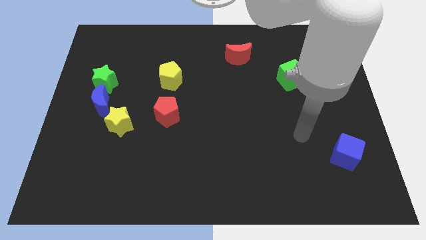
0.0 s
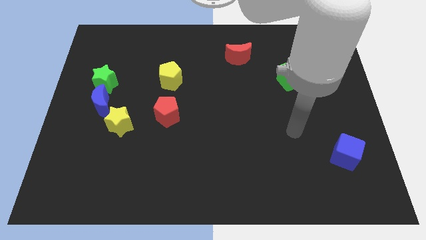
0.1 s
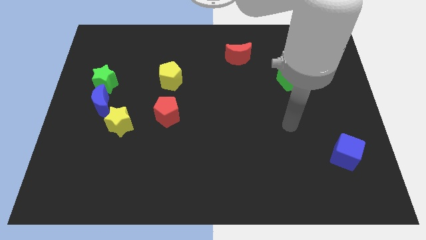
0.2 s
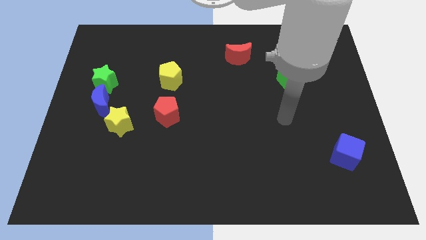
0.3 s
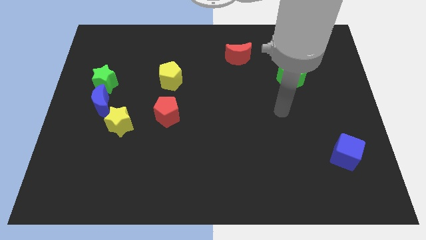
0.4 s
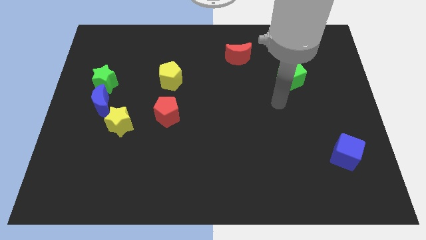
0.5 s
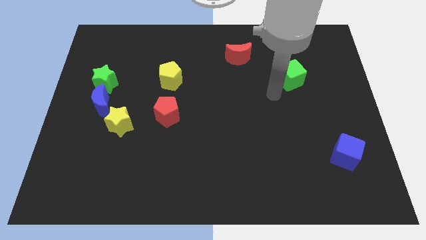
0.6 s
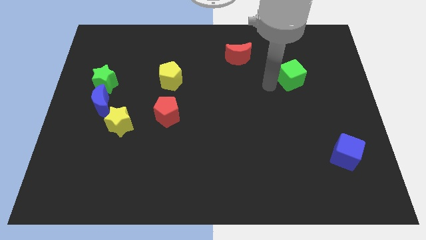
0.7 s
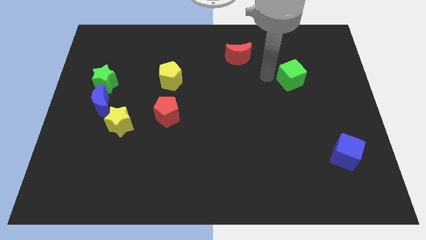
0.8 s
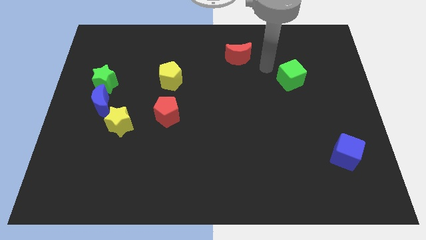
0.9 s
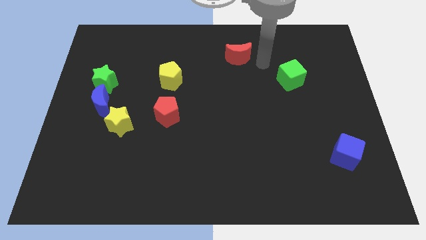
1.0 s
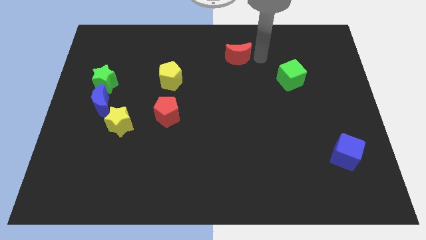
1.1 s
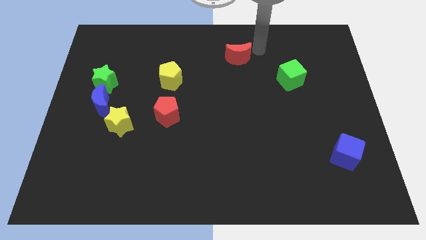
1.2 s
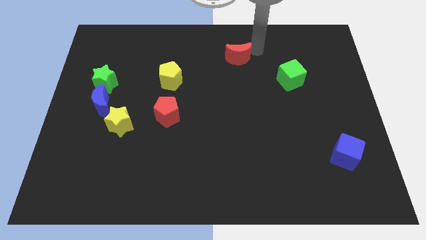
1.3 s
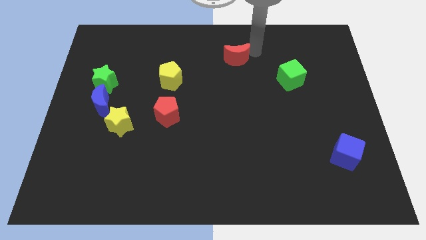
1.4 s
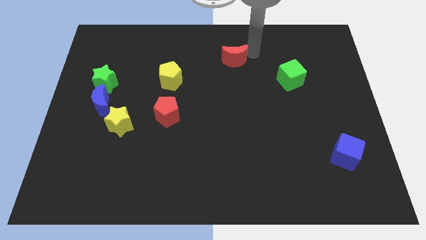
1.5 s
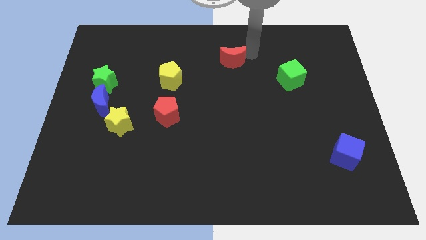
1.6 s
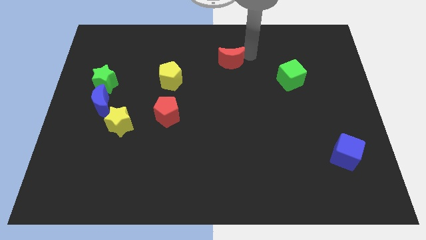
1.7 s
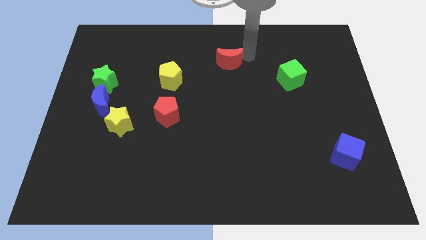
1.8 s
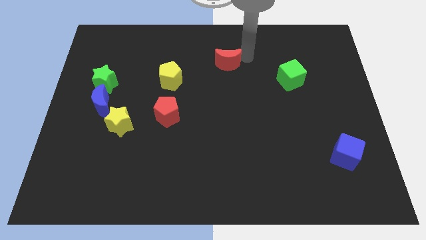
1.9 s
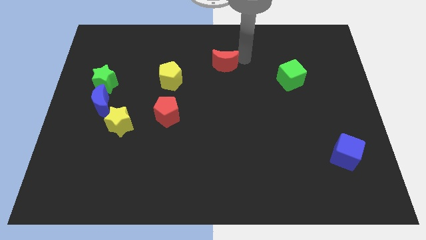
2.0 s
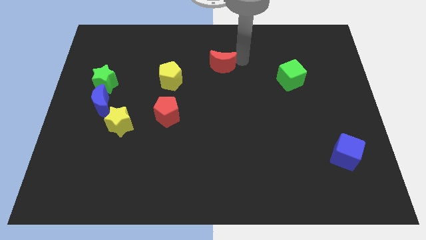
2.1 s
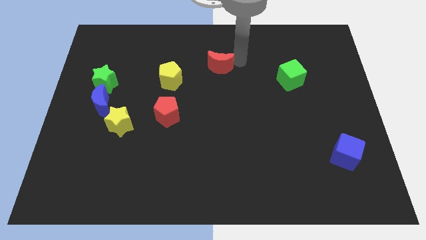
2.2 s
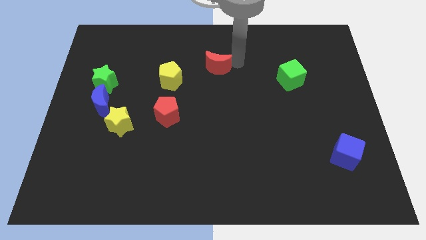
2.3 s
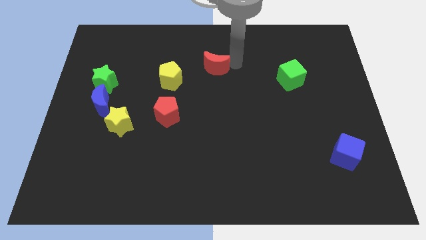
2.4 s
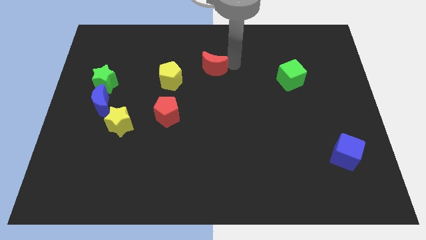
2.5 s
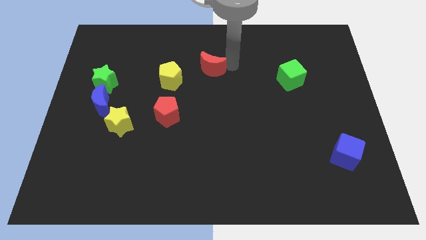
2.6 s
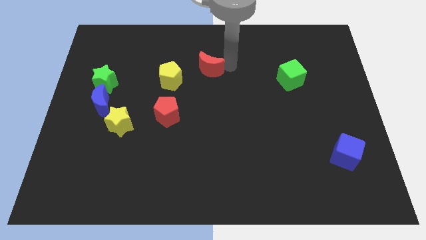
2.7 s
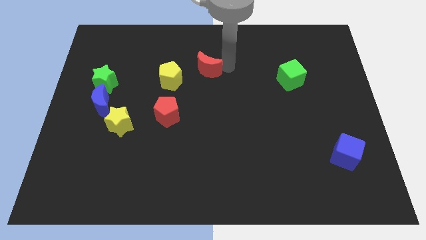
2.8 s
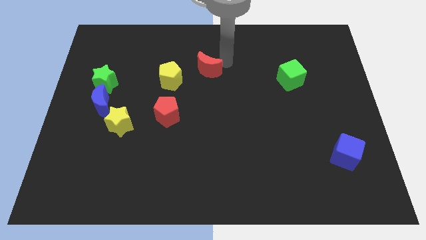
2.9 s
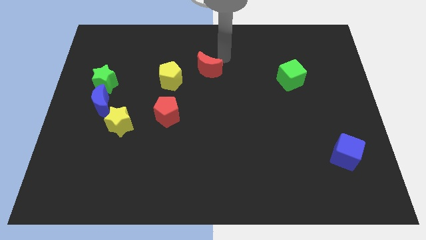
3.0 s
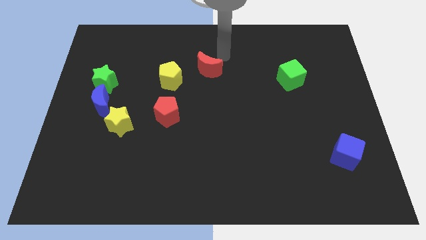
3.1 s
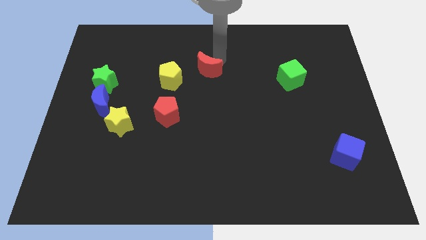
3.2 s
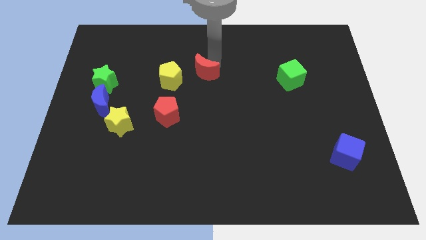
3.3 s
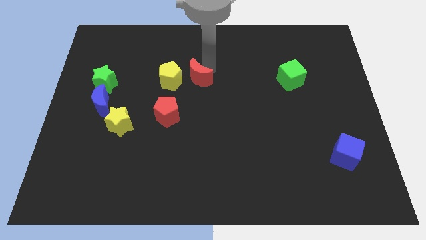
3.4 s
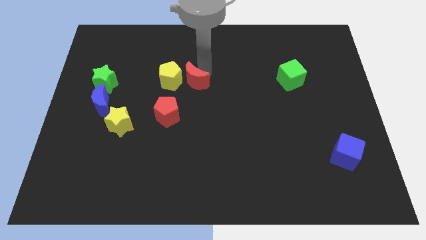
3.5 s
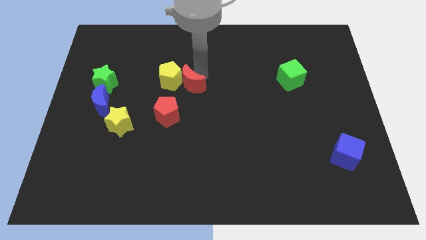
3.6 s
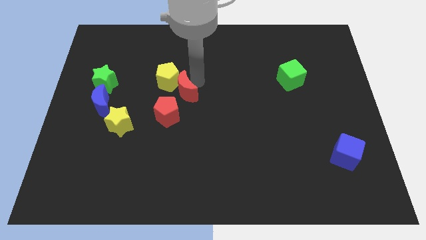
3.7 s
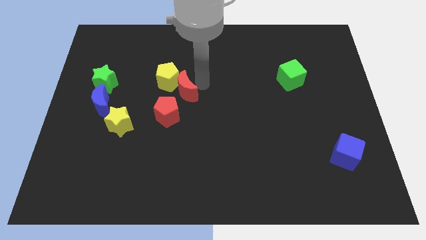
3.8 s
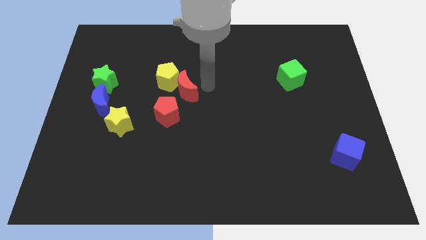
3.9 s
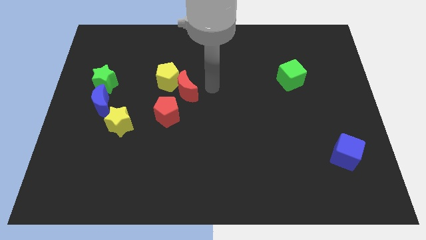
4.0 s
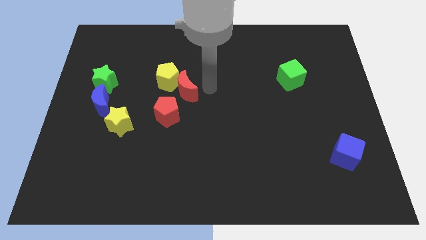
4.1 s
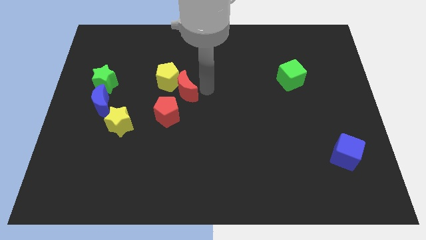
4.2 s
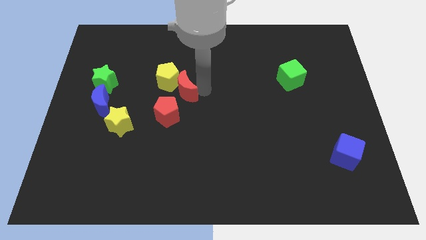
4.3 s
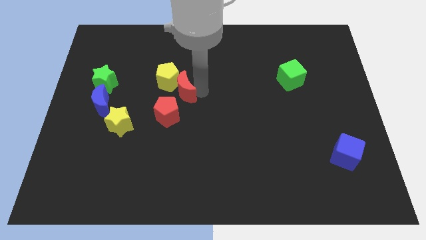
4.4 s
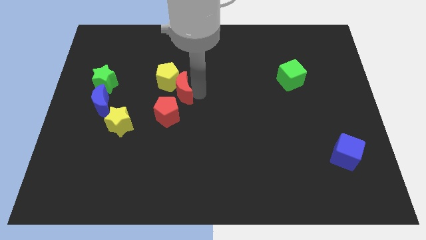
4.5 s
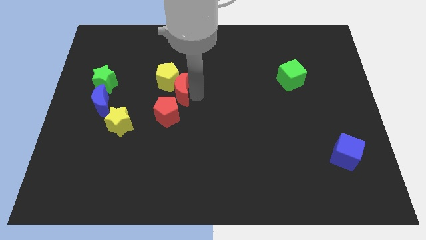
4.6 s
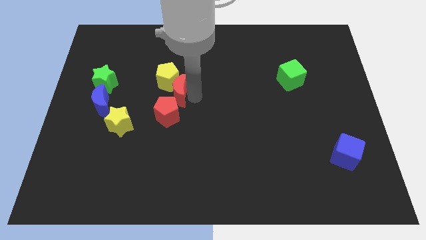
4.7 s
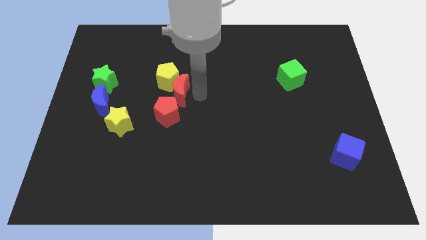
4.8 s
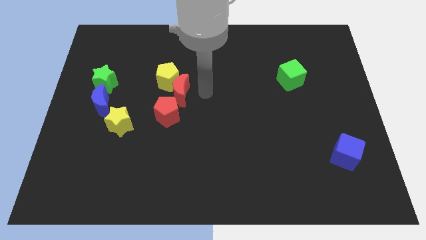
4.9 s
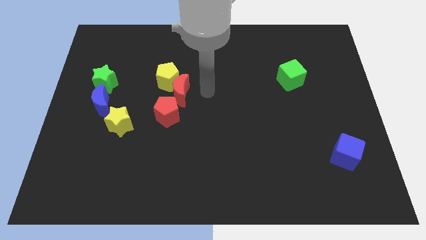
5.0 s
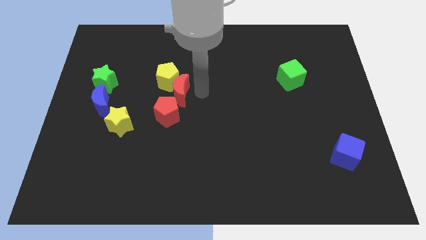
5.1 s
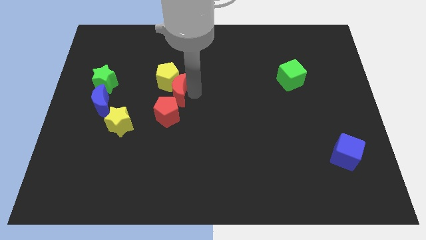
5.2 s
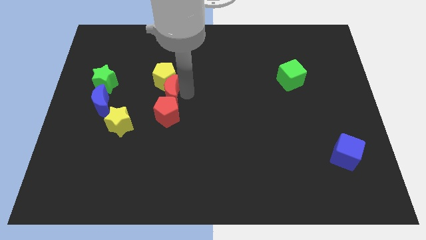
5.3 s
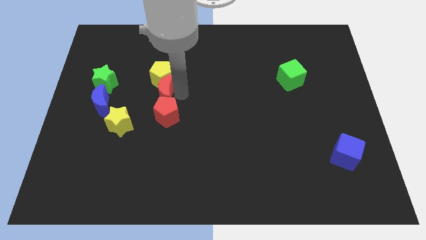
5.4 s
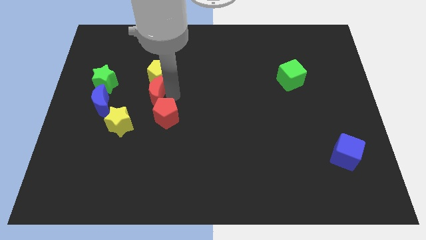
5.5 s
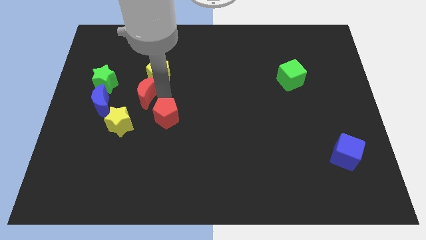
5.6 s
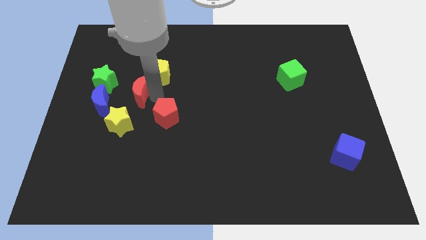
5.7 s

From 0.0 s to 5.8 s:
move the red moon to the top right side of the blue moon

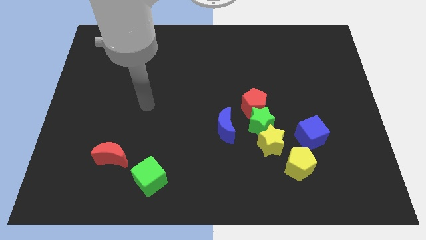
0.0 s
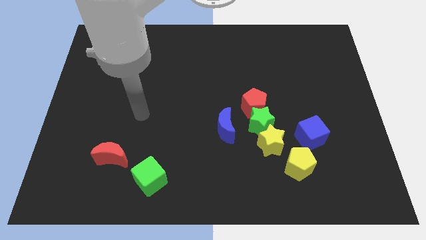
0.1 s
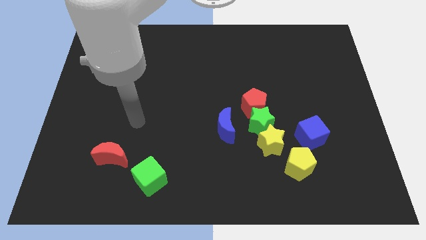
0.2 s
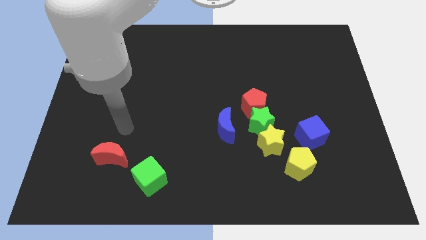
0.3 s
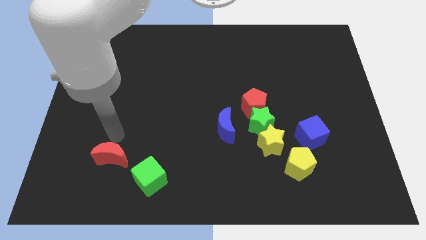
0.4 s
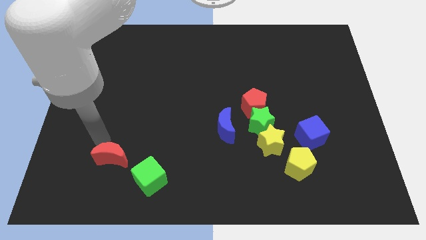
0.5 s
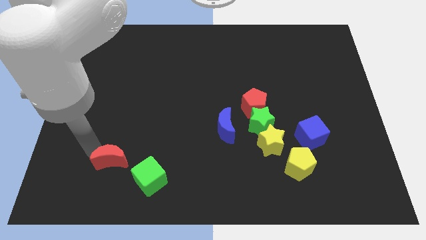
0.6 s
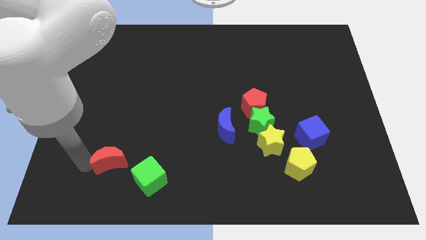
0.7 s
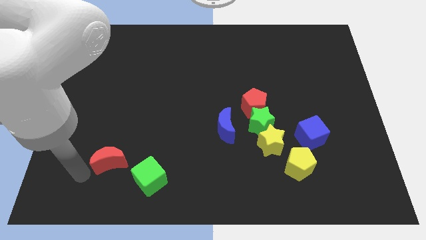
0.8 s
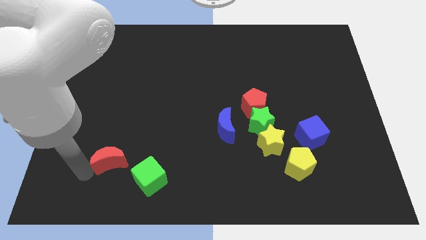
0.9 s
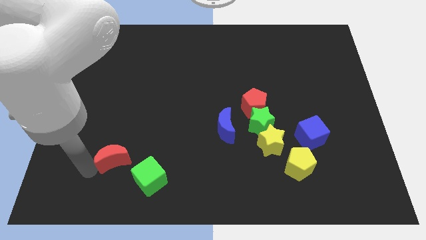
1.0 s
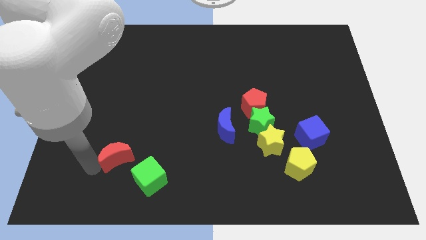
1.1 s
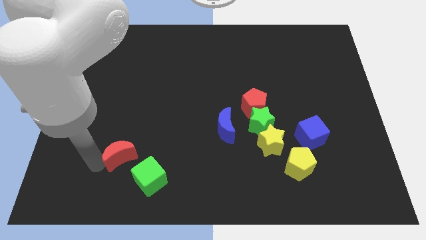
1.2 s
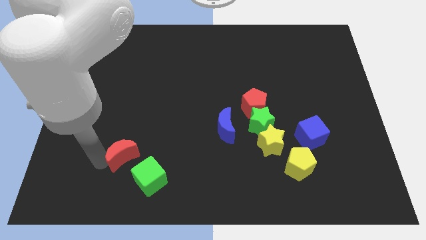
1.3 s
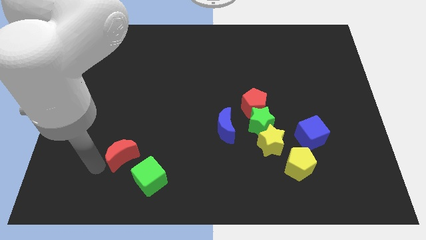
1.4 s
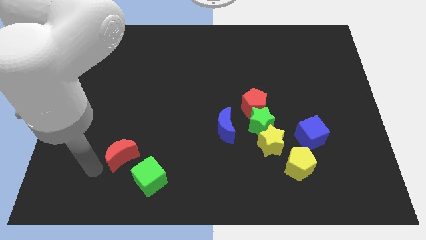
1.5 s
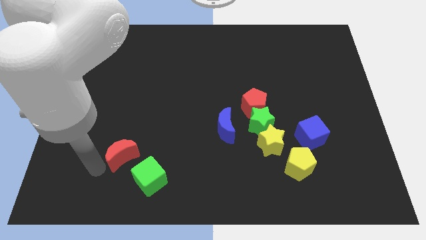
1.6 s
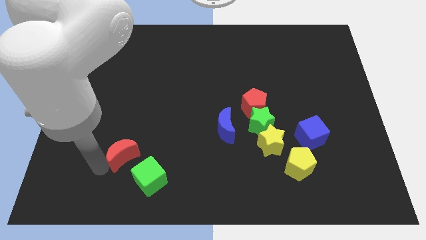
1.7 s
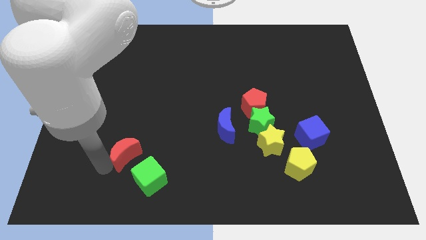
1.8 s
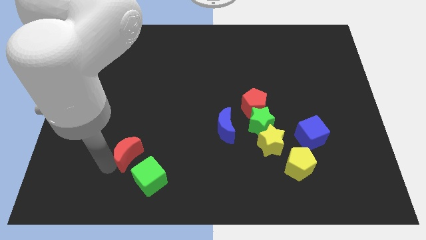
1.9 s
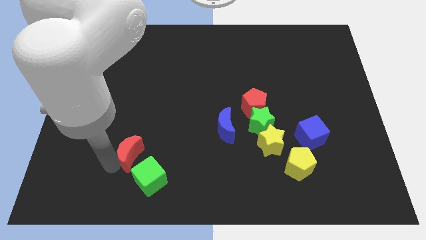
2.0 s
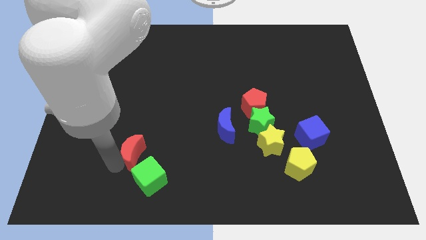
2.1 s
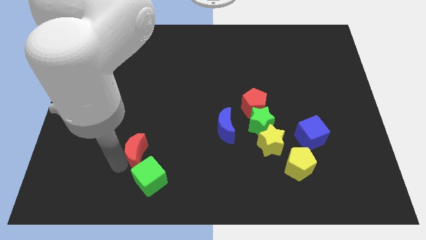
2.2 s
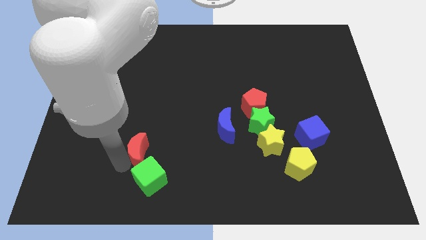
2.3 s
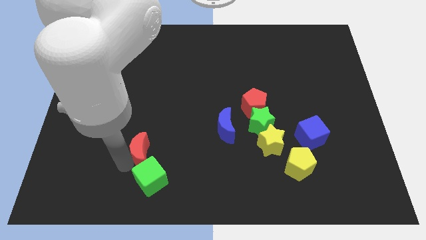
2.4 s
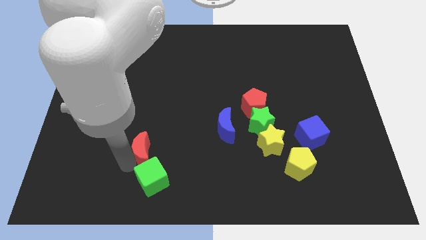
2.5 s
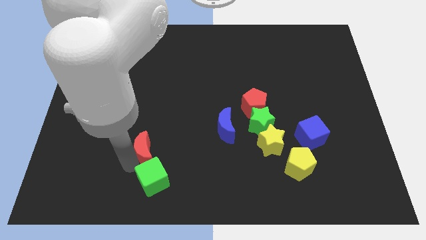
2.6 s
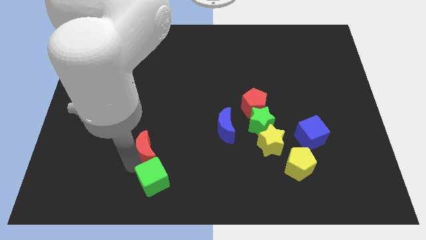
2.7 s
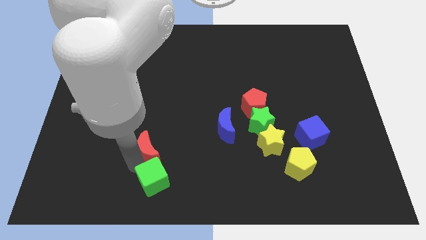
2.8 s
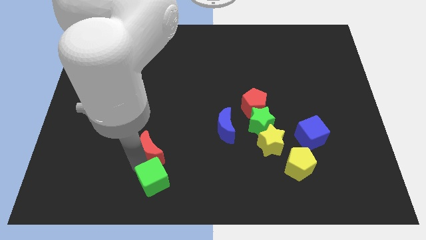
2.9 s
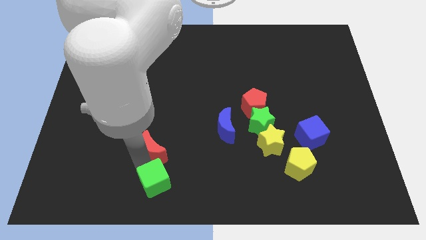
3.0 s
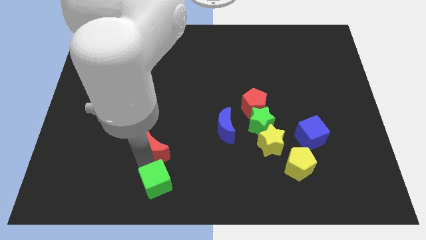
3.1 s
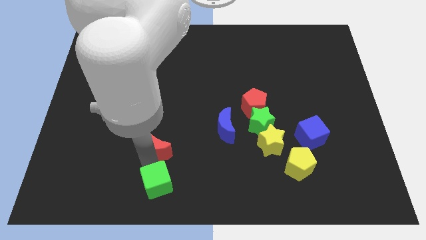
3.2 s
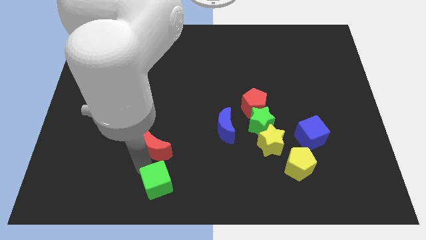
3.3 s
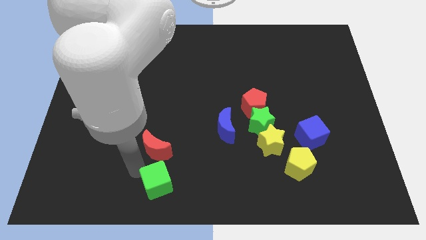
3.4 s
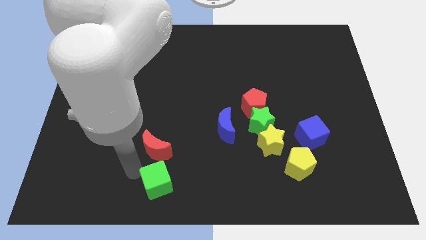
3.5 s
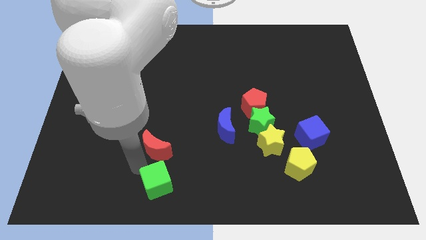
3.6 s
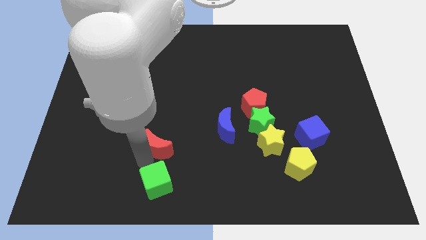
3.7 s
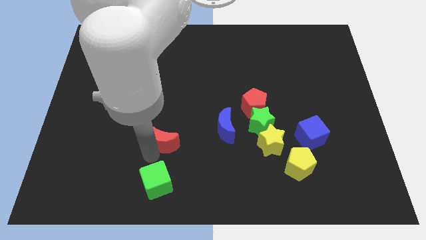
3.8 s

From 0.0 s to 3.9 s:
push the red moon left of the blue moon
